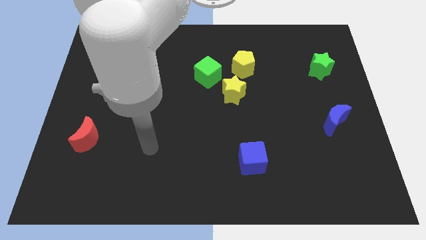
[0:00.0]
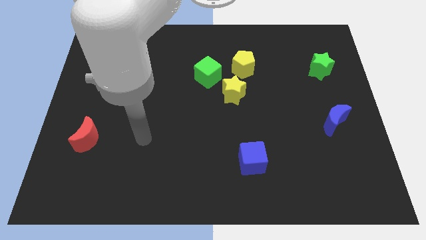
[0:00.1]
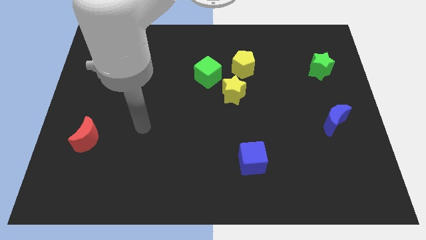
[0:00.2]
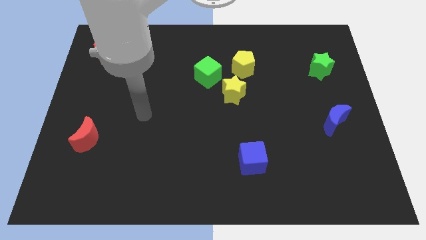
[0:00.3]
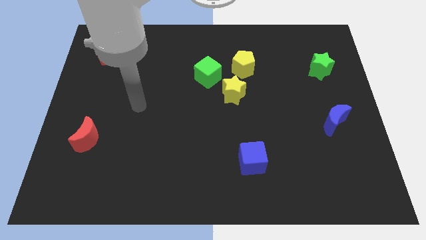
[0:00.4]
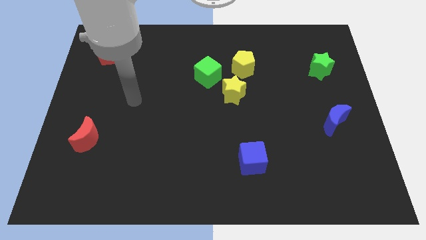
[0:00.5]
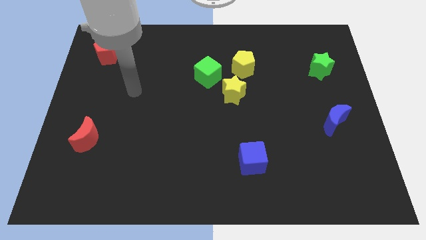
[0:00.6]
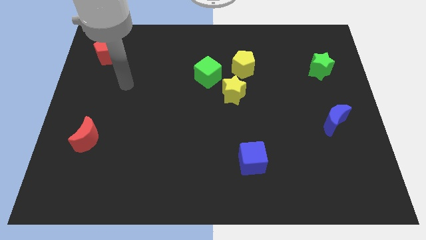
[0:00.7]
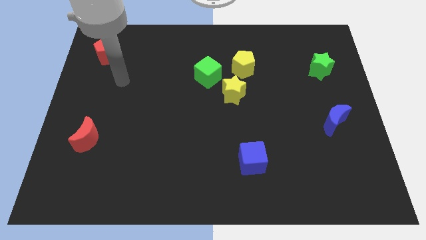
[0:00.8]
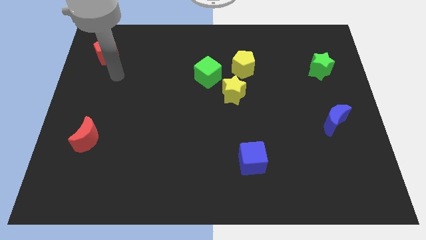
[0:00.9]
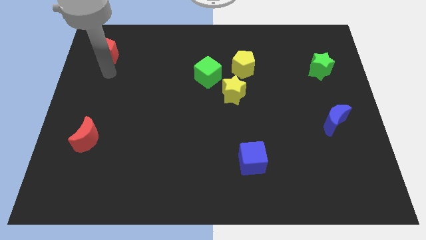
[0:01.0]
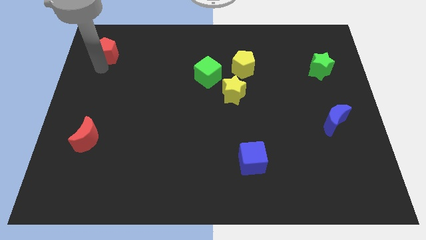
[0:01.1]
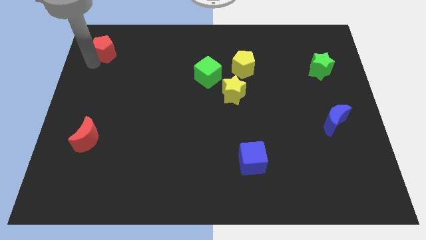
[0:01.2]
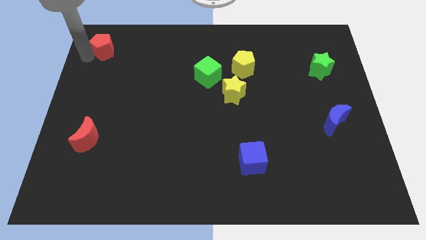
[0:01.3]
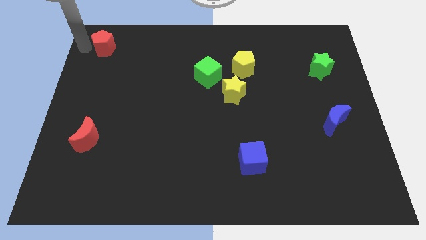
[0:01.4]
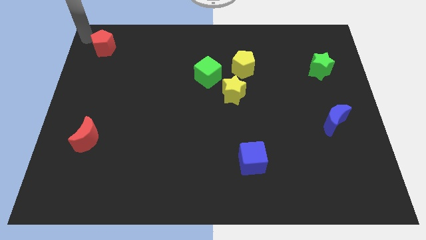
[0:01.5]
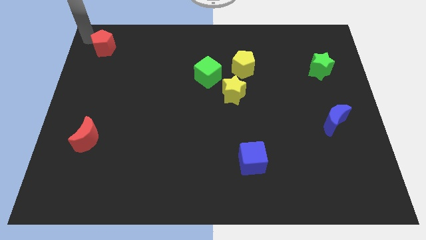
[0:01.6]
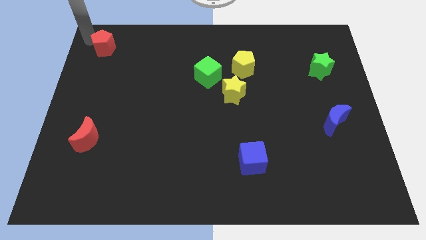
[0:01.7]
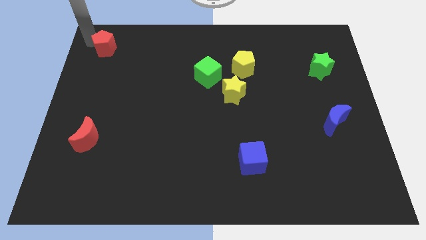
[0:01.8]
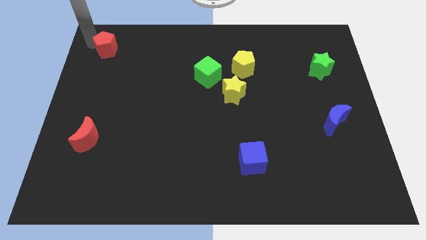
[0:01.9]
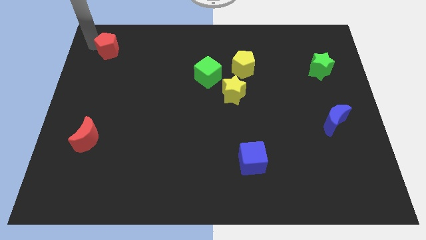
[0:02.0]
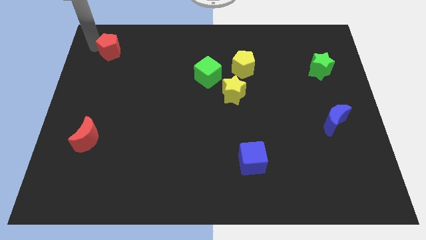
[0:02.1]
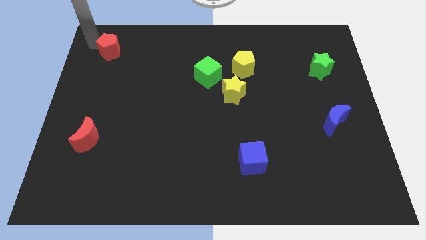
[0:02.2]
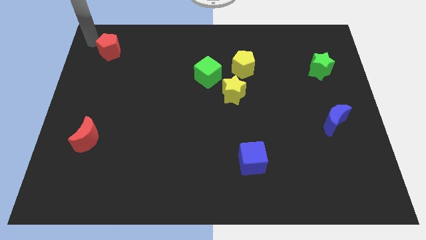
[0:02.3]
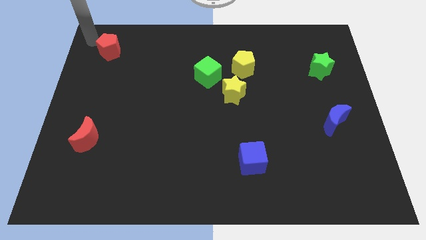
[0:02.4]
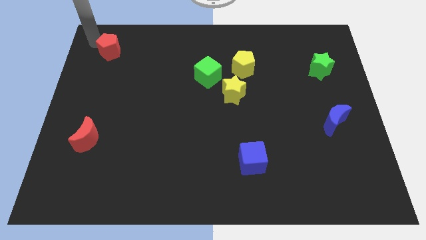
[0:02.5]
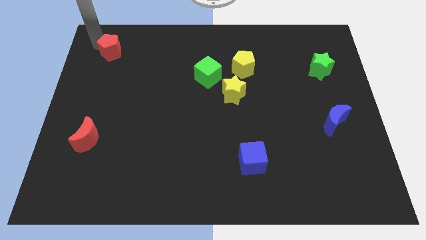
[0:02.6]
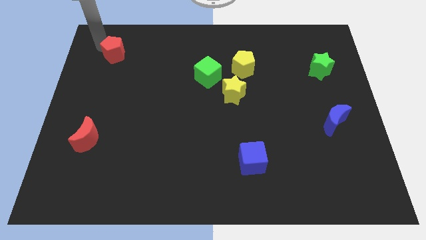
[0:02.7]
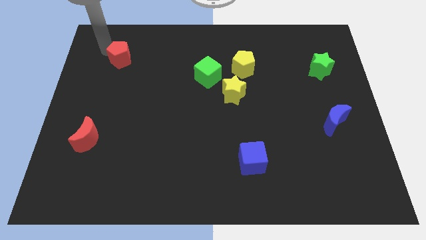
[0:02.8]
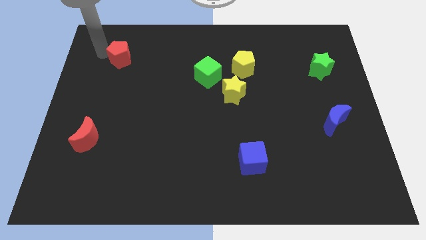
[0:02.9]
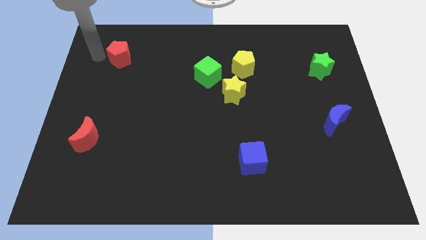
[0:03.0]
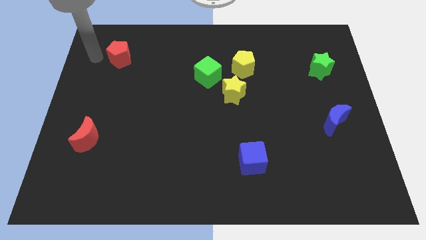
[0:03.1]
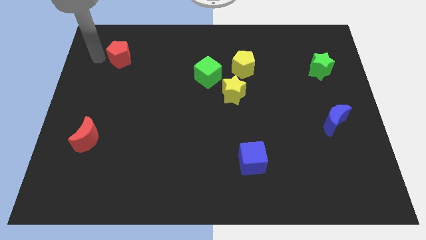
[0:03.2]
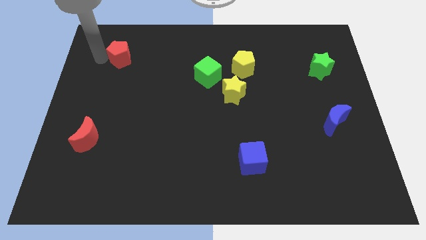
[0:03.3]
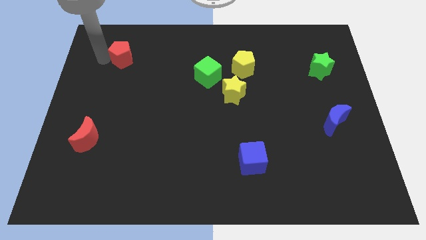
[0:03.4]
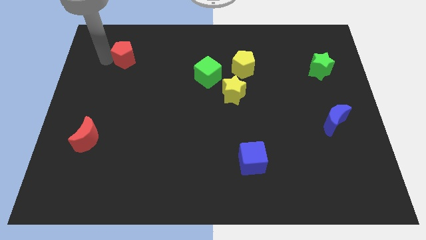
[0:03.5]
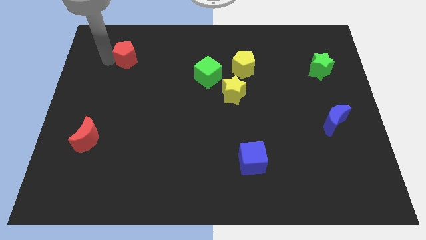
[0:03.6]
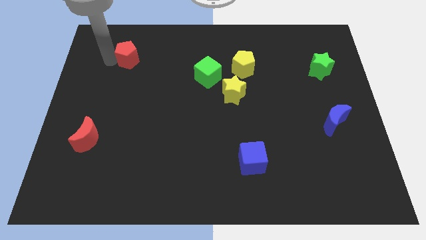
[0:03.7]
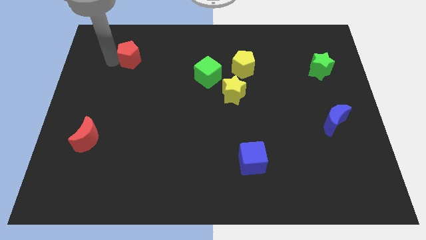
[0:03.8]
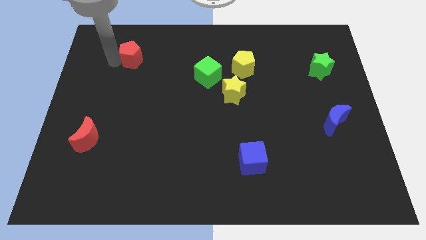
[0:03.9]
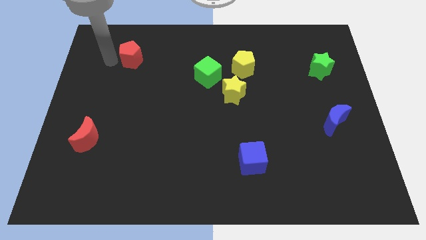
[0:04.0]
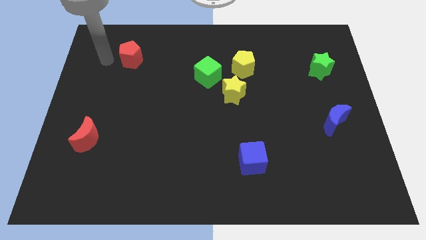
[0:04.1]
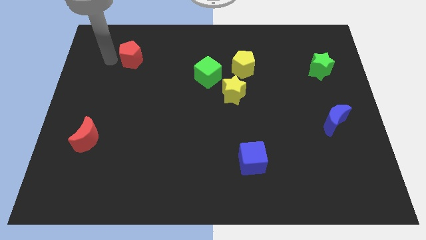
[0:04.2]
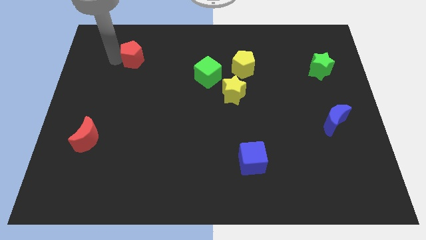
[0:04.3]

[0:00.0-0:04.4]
move the red pentagon a little bit right

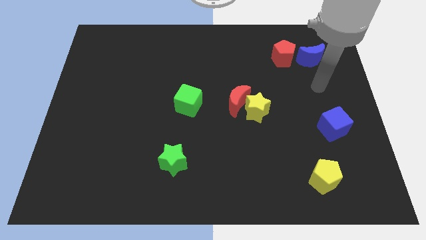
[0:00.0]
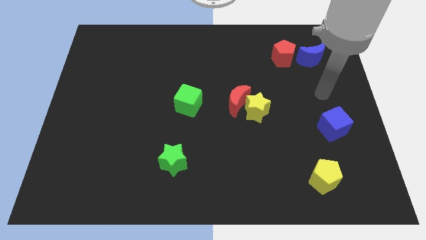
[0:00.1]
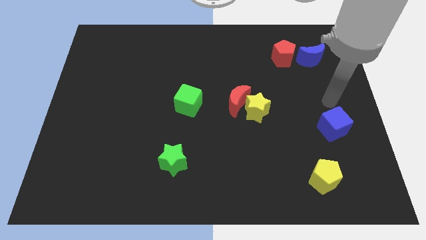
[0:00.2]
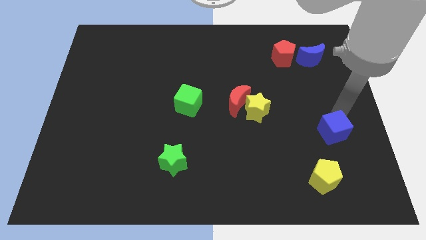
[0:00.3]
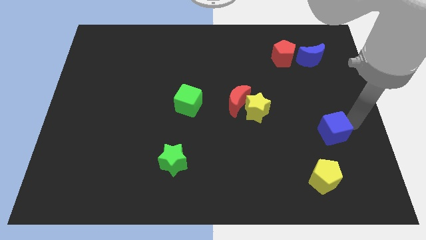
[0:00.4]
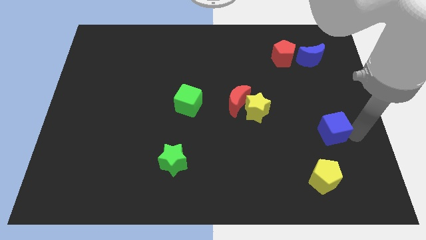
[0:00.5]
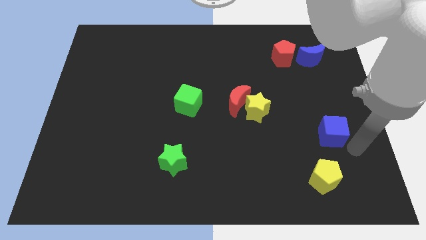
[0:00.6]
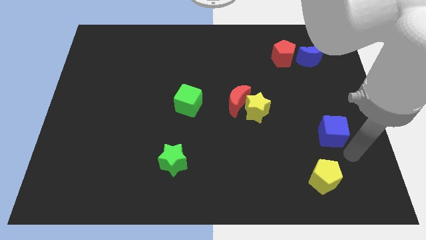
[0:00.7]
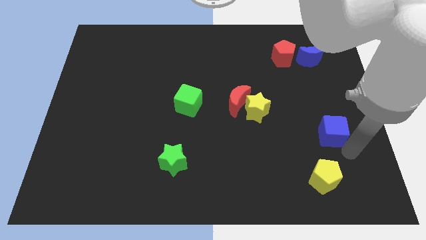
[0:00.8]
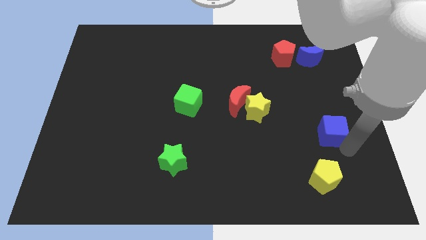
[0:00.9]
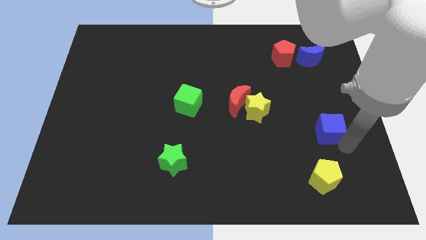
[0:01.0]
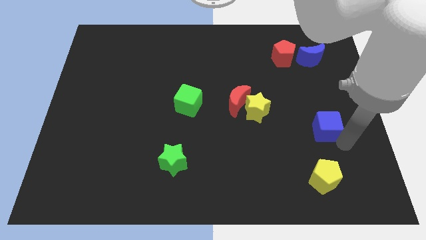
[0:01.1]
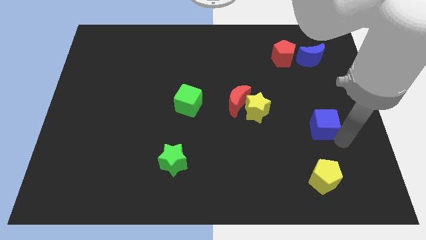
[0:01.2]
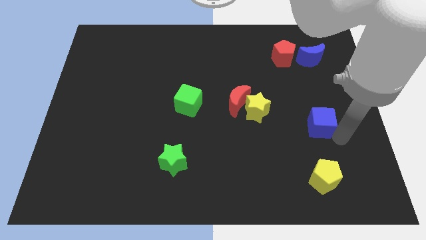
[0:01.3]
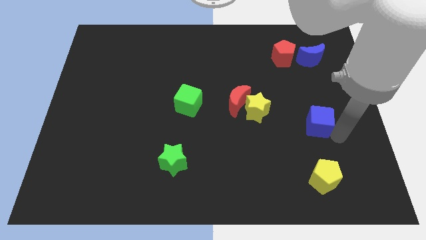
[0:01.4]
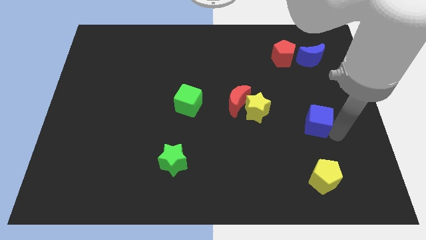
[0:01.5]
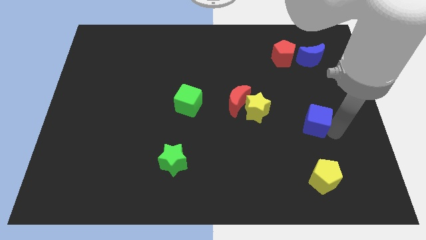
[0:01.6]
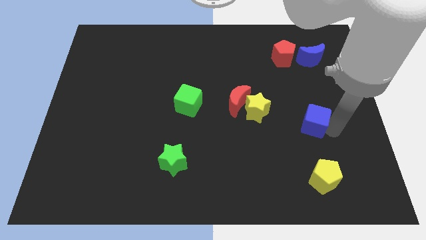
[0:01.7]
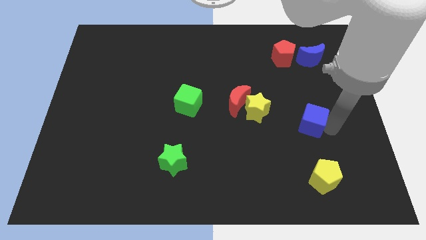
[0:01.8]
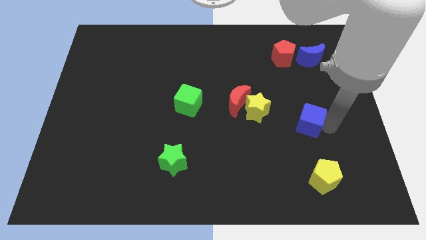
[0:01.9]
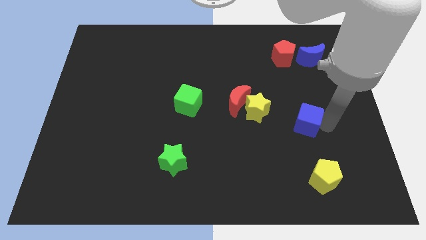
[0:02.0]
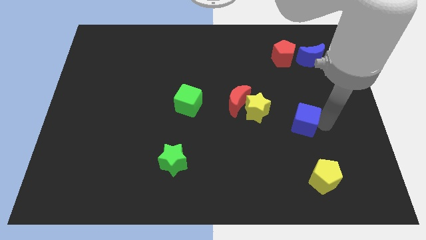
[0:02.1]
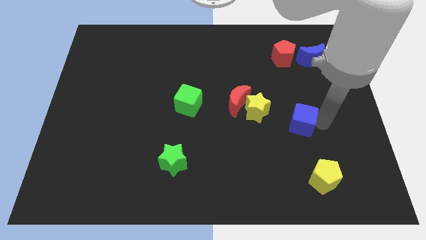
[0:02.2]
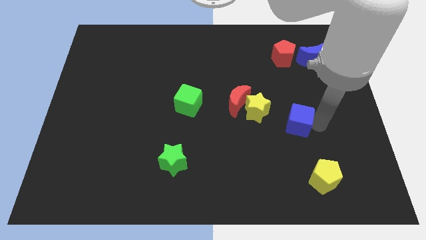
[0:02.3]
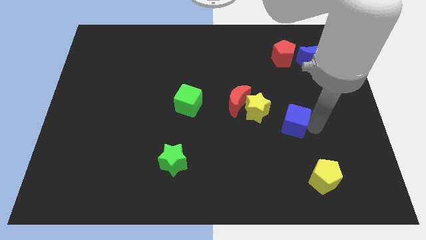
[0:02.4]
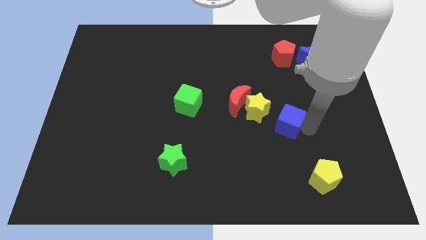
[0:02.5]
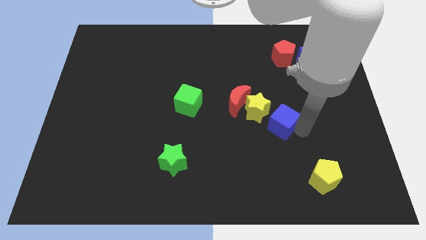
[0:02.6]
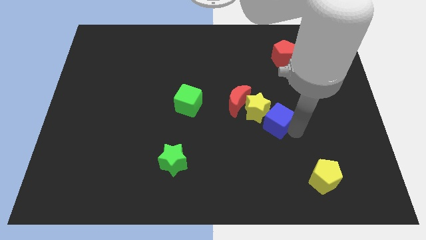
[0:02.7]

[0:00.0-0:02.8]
slide the blue cube a little diagonally up and left

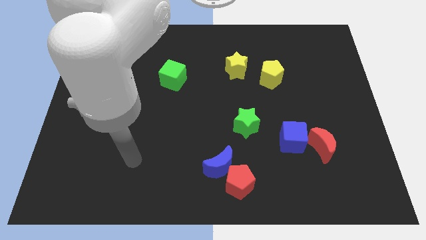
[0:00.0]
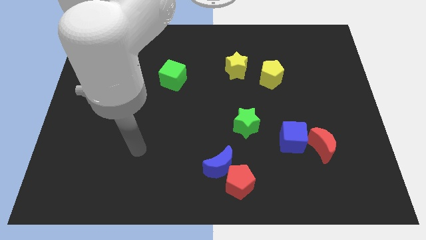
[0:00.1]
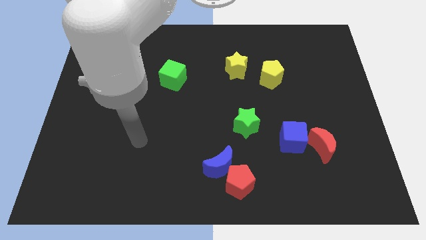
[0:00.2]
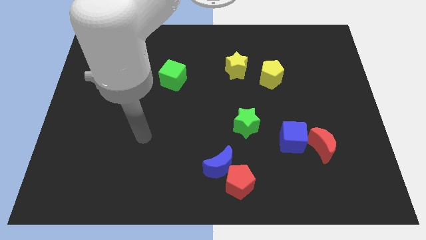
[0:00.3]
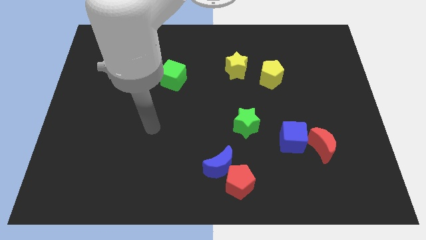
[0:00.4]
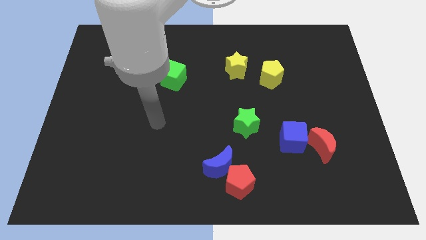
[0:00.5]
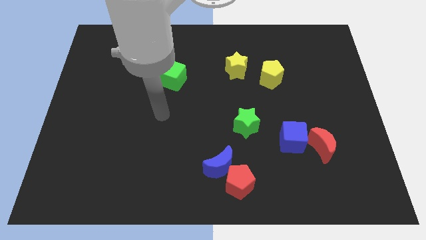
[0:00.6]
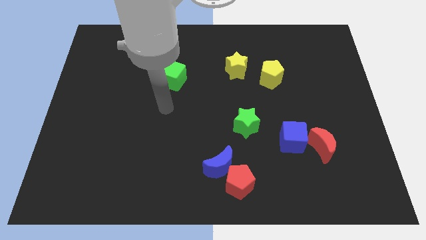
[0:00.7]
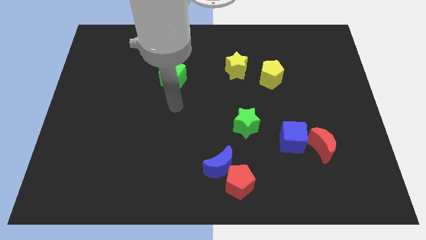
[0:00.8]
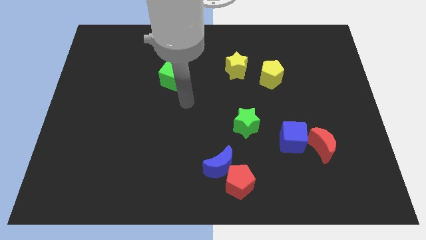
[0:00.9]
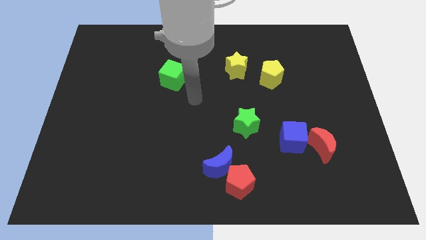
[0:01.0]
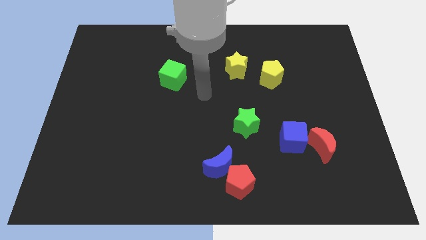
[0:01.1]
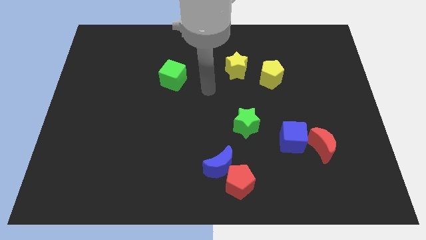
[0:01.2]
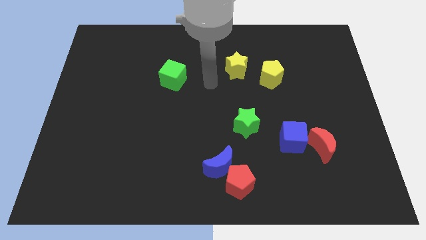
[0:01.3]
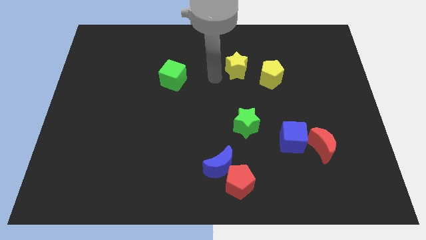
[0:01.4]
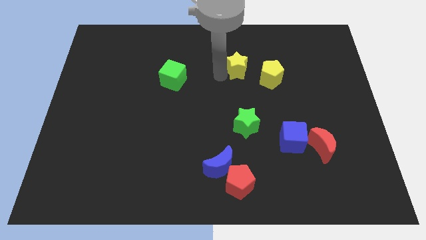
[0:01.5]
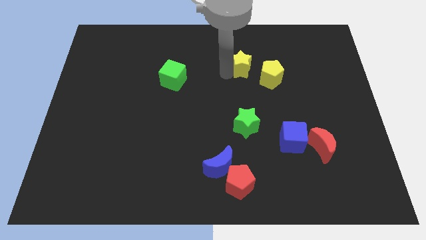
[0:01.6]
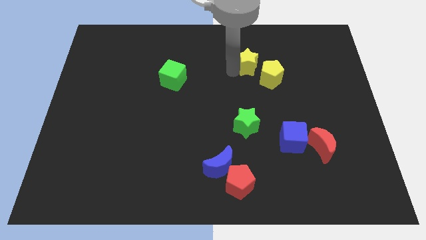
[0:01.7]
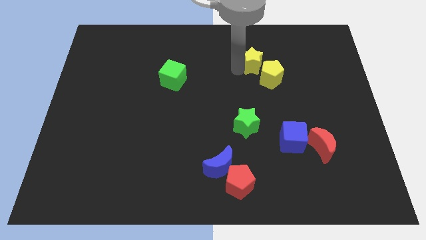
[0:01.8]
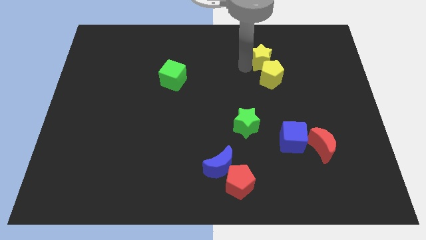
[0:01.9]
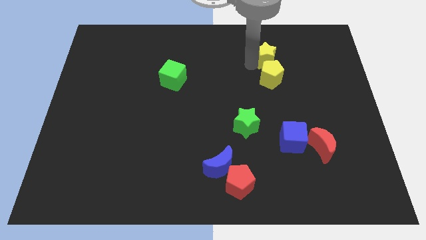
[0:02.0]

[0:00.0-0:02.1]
move the yellow star to the right somewhat
